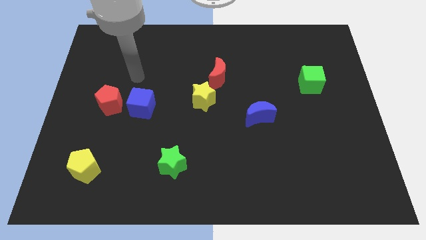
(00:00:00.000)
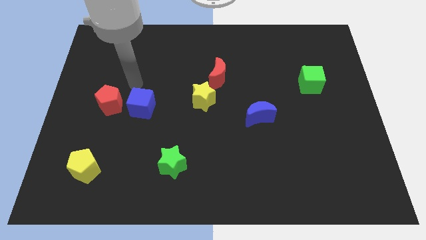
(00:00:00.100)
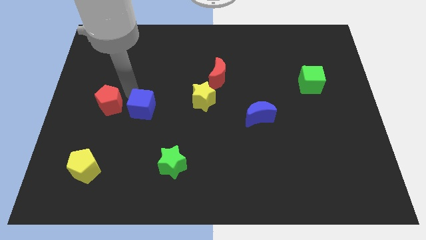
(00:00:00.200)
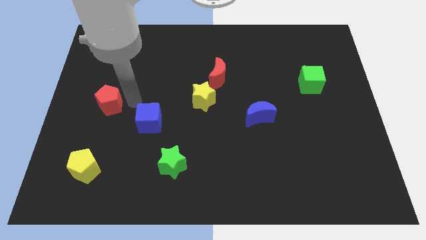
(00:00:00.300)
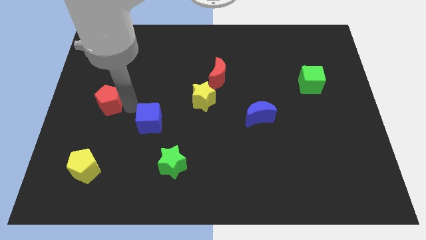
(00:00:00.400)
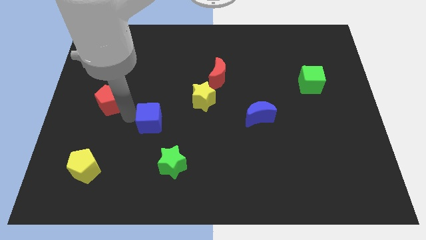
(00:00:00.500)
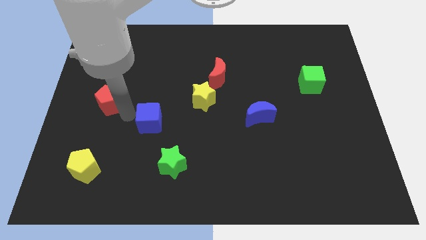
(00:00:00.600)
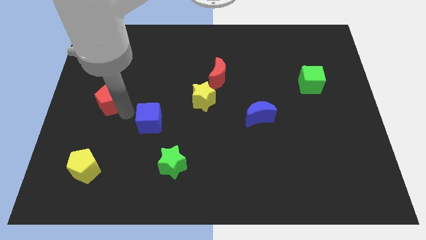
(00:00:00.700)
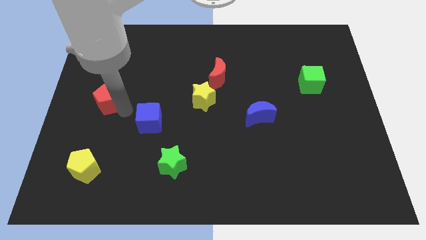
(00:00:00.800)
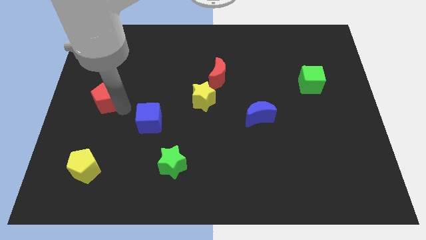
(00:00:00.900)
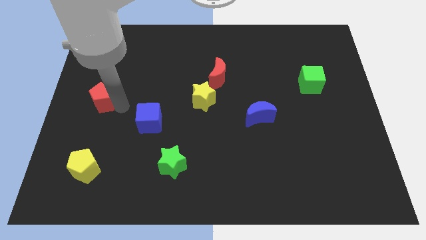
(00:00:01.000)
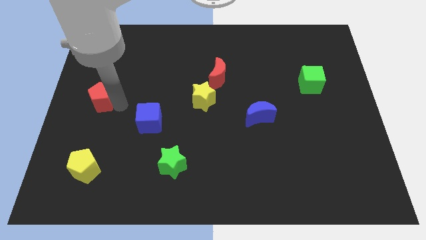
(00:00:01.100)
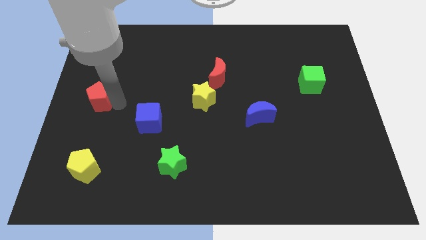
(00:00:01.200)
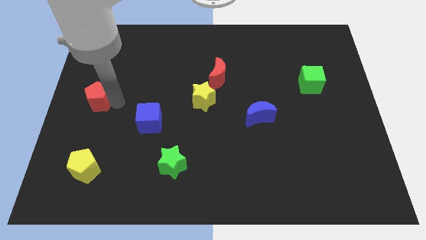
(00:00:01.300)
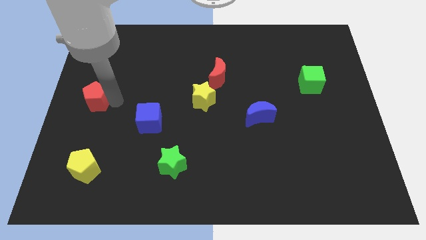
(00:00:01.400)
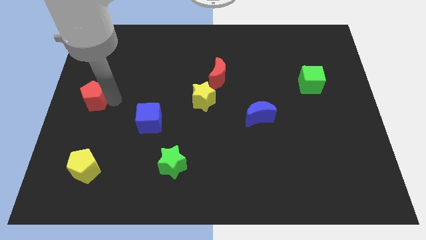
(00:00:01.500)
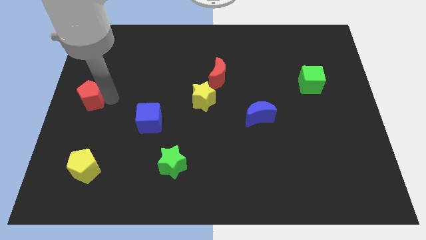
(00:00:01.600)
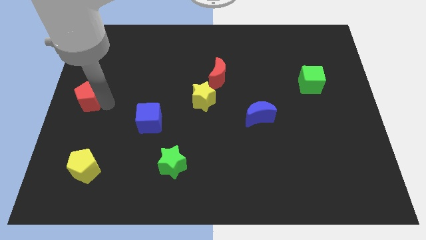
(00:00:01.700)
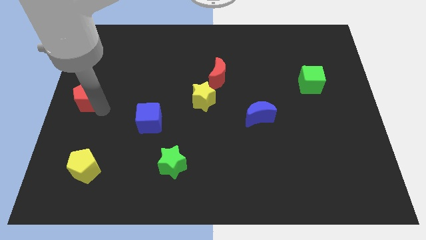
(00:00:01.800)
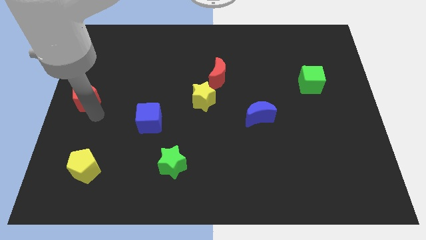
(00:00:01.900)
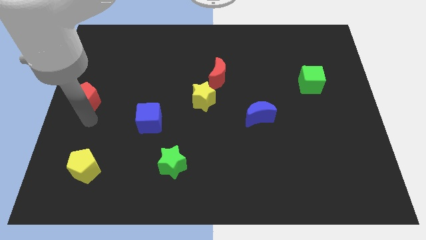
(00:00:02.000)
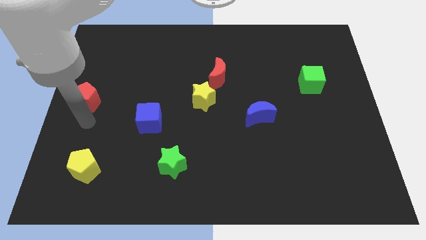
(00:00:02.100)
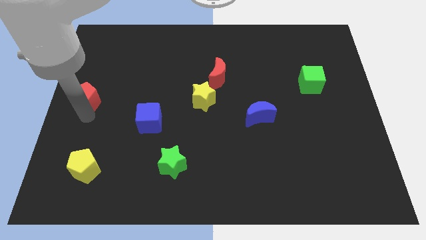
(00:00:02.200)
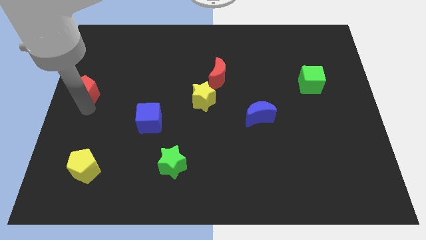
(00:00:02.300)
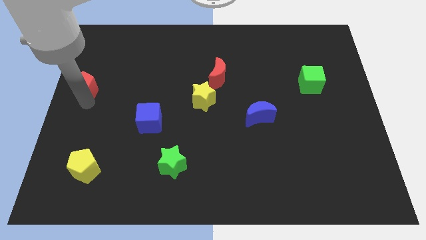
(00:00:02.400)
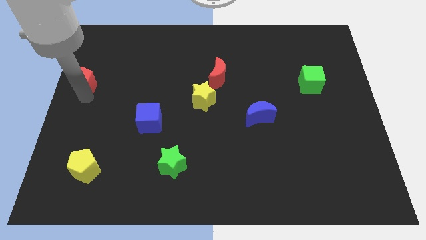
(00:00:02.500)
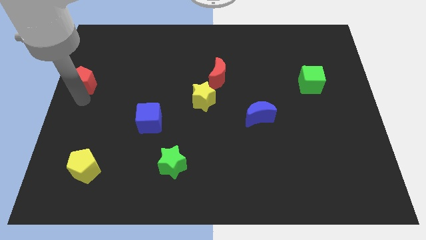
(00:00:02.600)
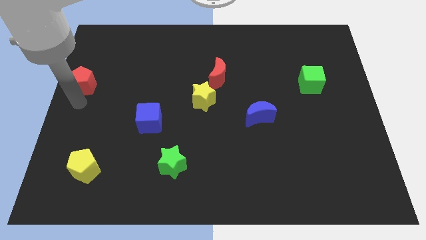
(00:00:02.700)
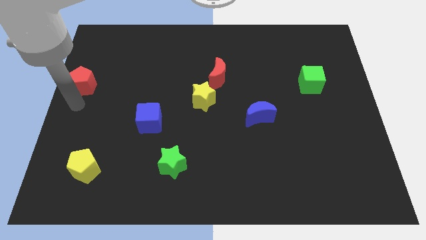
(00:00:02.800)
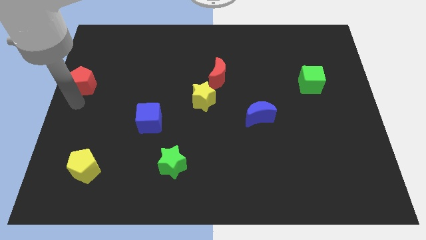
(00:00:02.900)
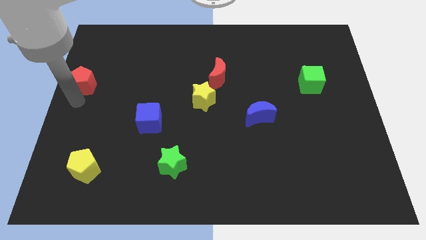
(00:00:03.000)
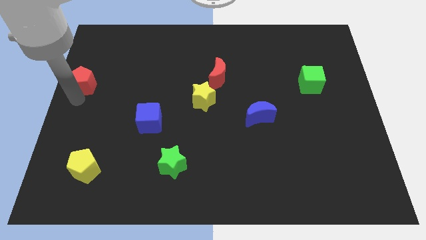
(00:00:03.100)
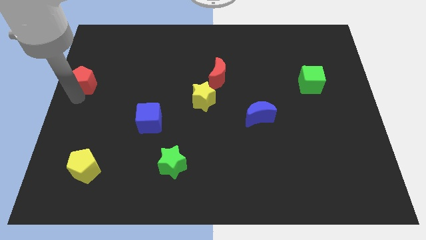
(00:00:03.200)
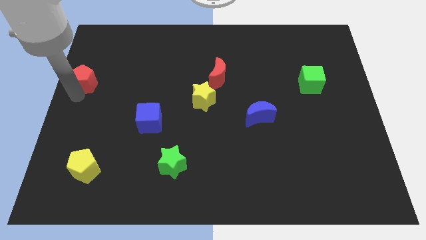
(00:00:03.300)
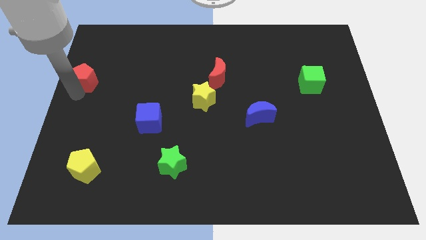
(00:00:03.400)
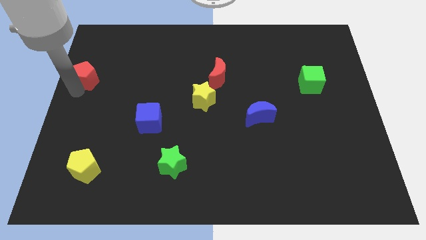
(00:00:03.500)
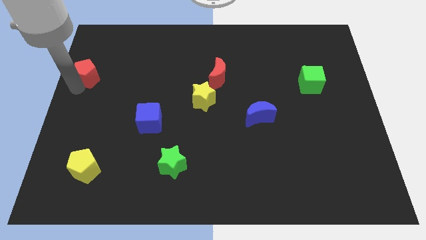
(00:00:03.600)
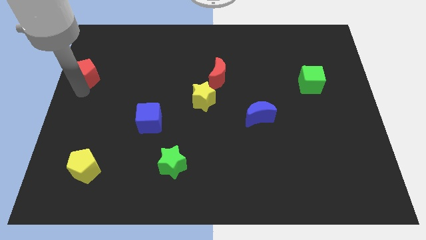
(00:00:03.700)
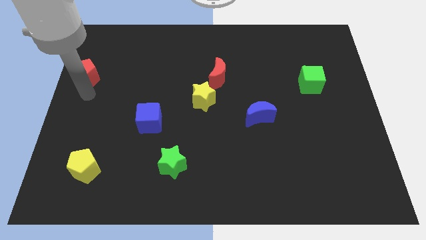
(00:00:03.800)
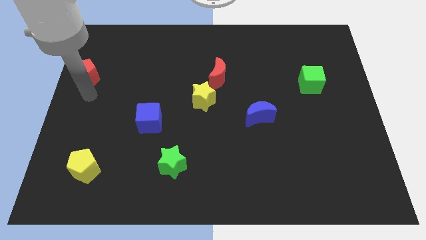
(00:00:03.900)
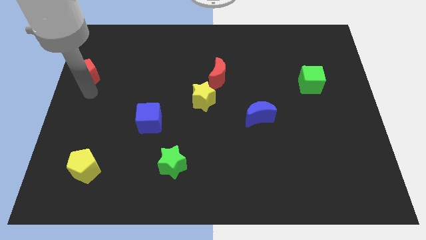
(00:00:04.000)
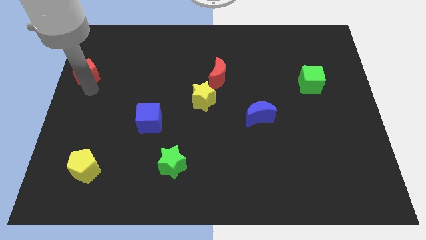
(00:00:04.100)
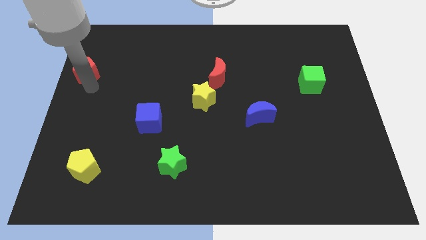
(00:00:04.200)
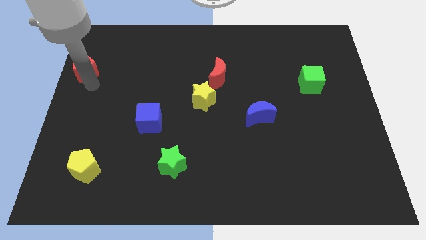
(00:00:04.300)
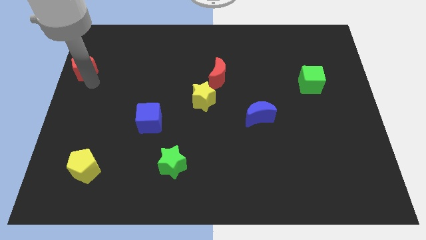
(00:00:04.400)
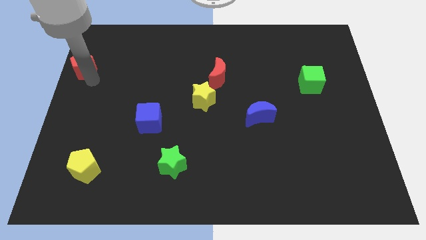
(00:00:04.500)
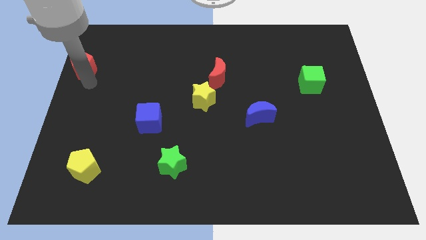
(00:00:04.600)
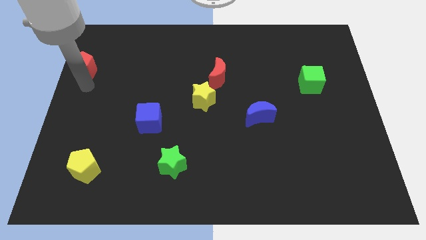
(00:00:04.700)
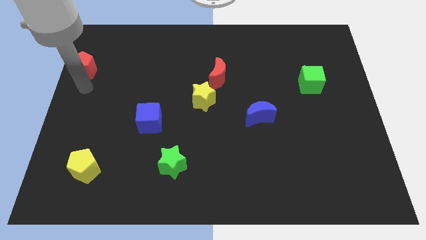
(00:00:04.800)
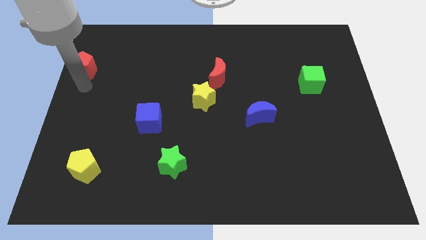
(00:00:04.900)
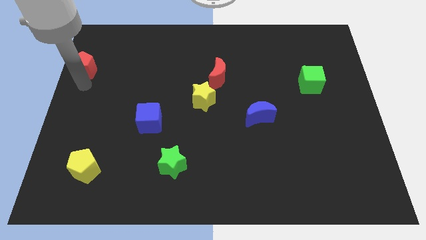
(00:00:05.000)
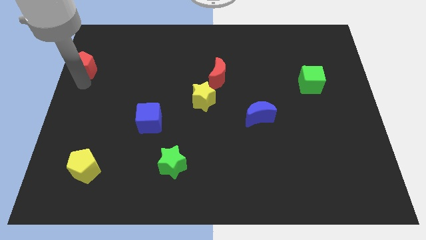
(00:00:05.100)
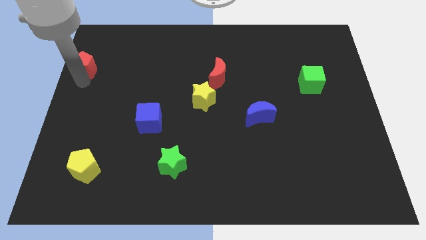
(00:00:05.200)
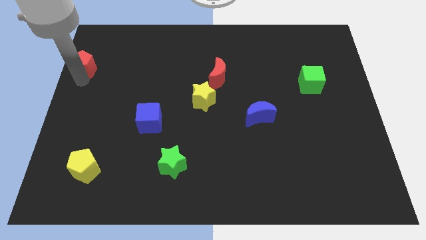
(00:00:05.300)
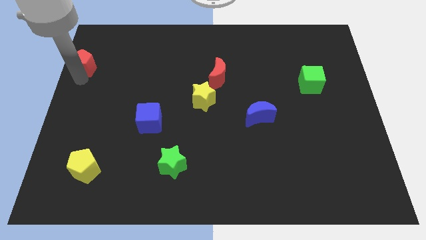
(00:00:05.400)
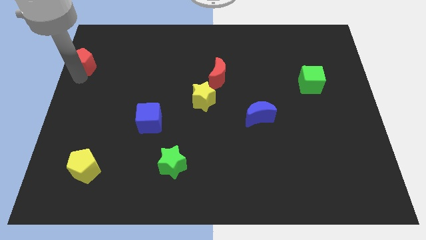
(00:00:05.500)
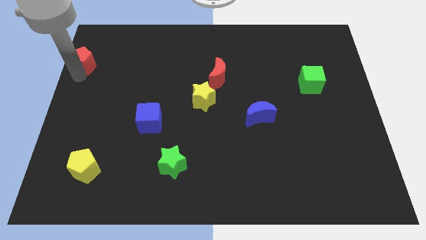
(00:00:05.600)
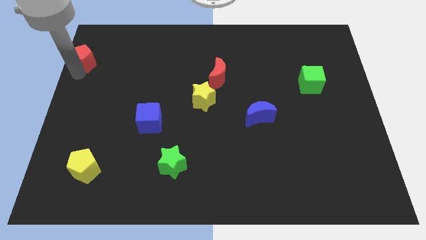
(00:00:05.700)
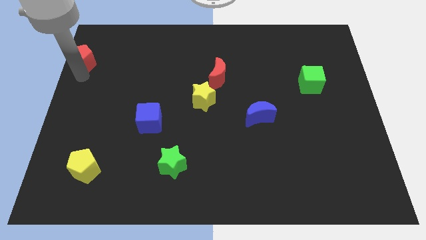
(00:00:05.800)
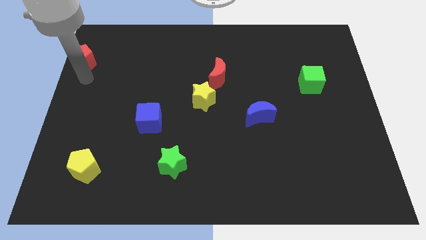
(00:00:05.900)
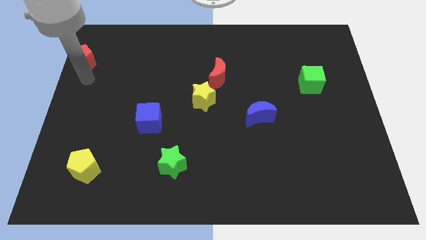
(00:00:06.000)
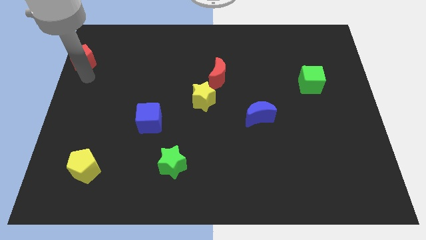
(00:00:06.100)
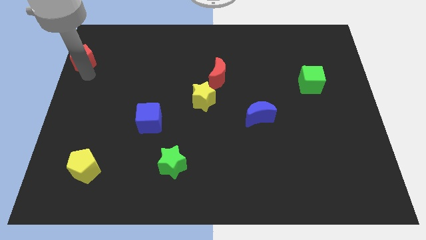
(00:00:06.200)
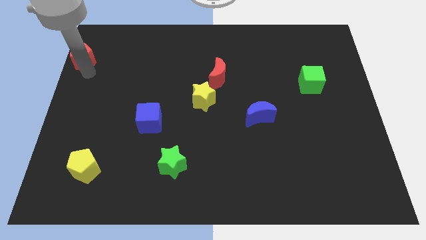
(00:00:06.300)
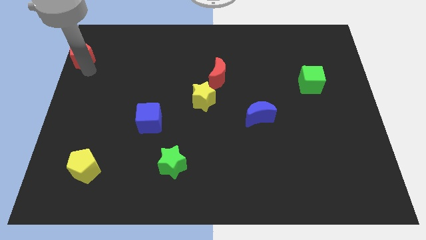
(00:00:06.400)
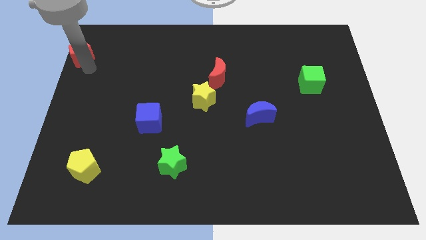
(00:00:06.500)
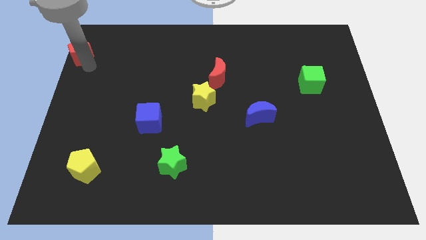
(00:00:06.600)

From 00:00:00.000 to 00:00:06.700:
push the red pentagon to the upper left corner
